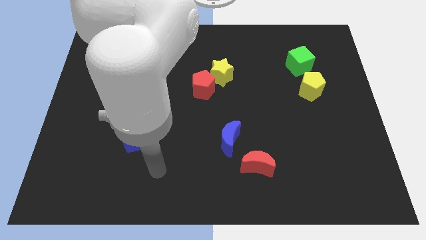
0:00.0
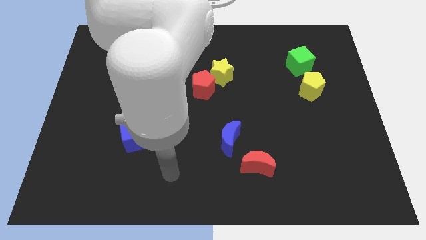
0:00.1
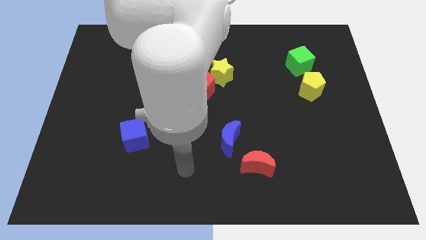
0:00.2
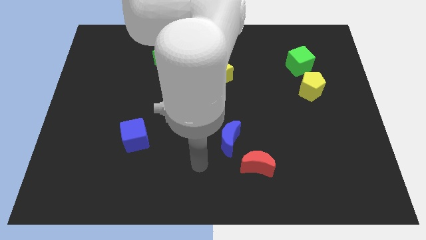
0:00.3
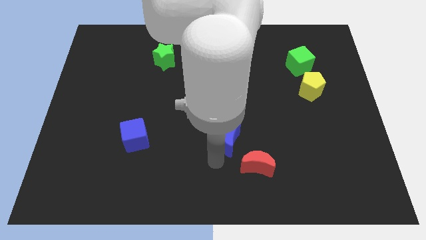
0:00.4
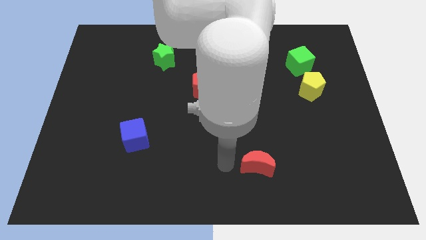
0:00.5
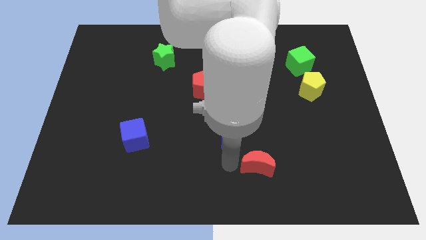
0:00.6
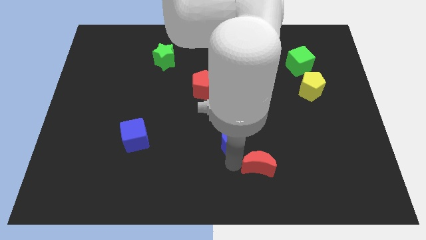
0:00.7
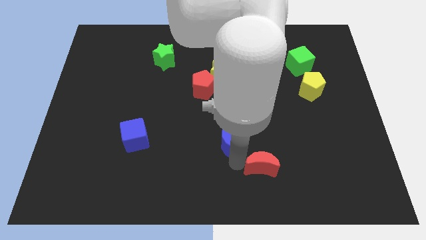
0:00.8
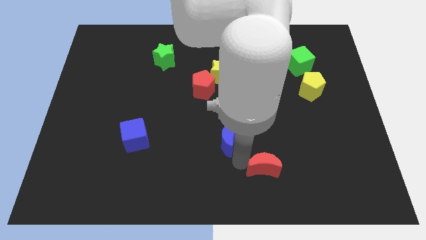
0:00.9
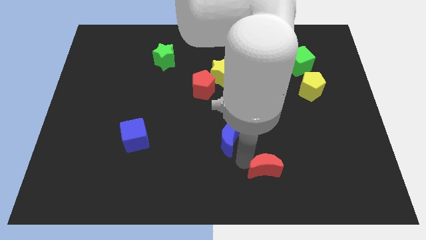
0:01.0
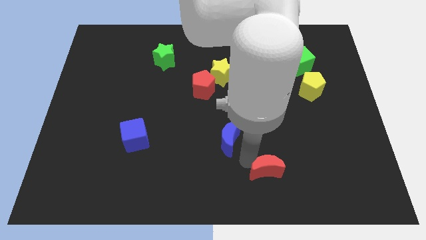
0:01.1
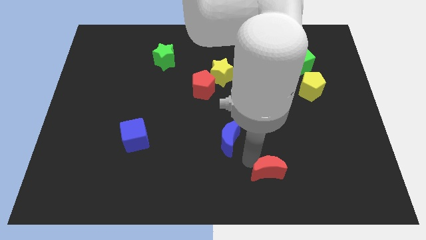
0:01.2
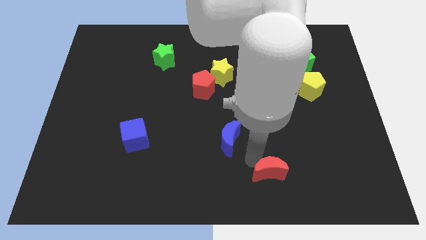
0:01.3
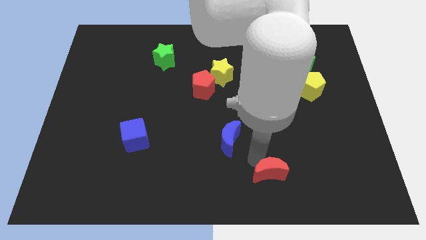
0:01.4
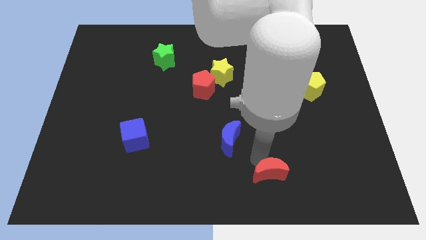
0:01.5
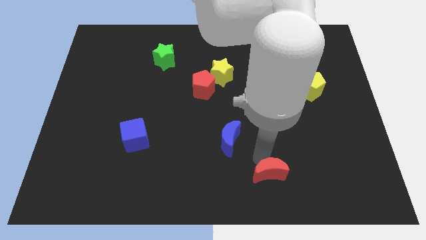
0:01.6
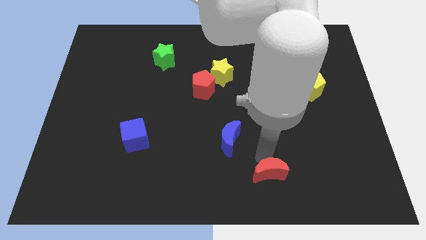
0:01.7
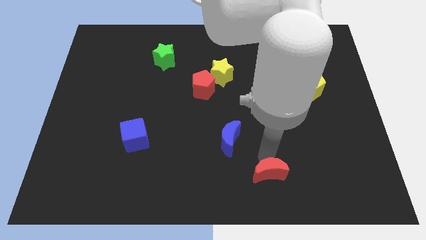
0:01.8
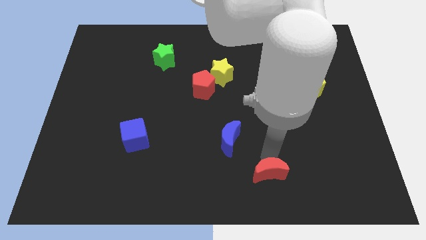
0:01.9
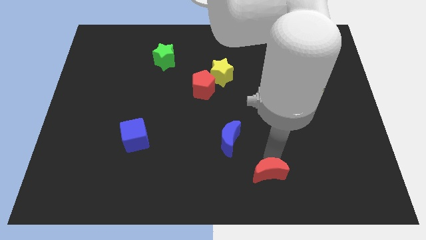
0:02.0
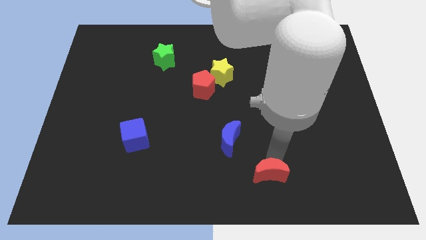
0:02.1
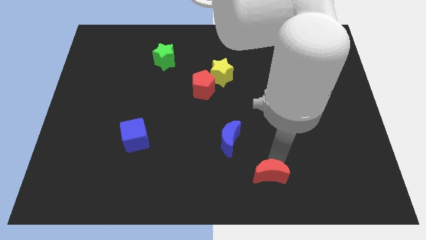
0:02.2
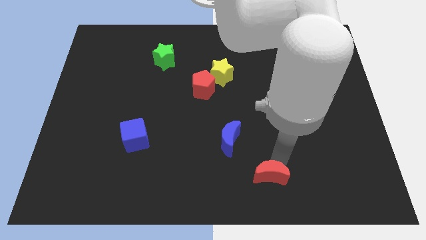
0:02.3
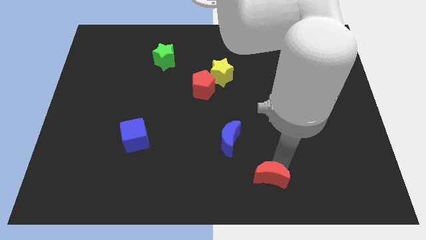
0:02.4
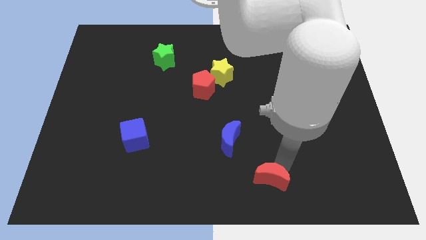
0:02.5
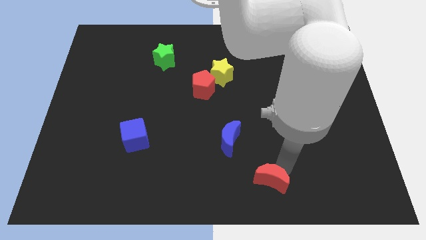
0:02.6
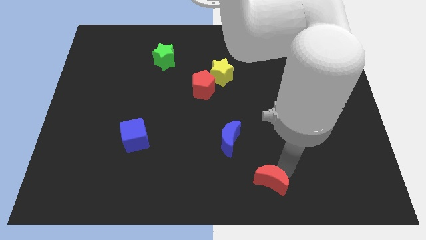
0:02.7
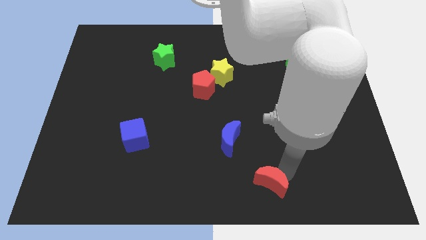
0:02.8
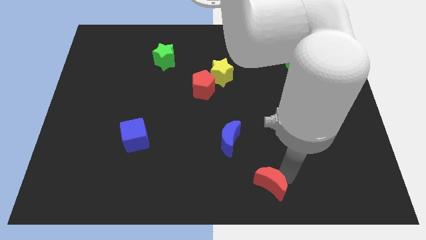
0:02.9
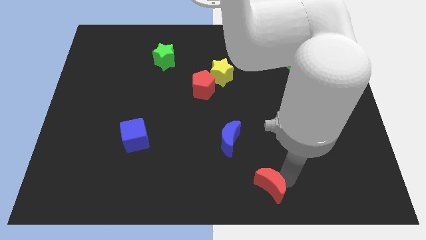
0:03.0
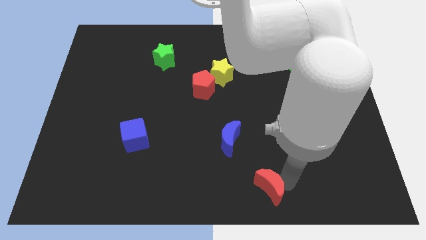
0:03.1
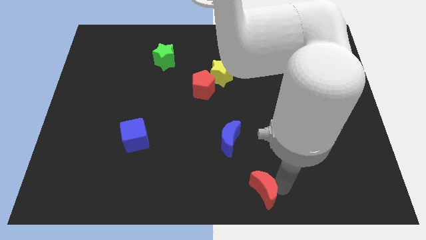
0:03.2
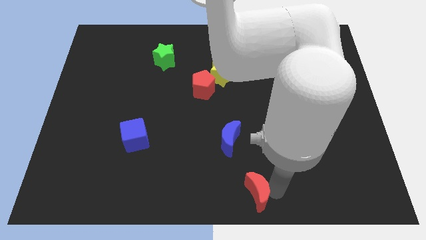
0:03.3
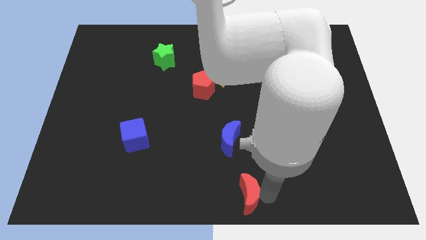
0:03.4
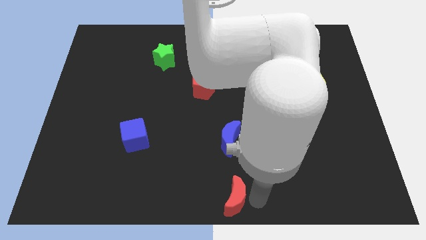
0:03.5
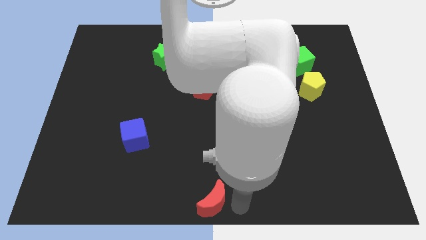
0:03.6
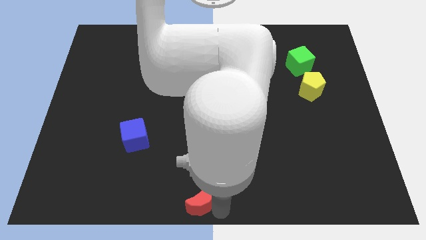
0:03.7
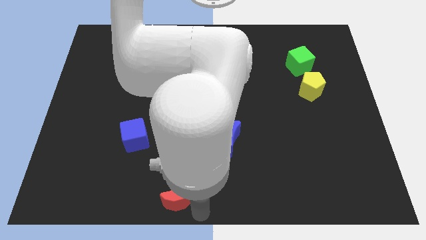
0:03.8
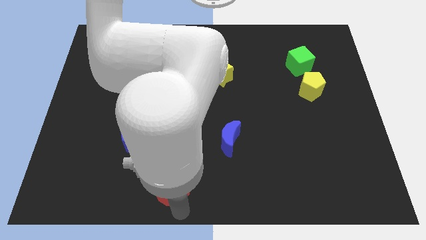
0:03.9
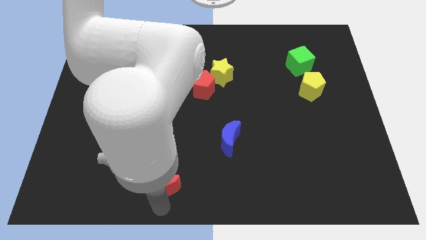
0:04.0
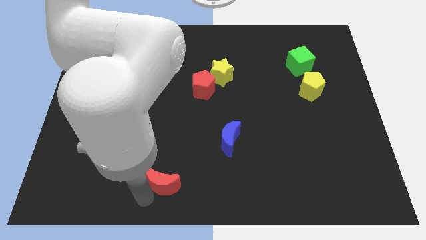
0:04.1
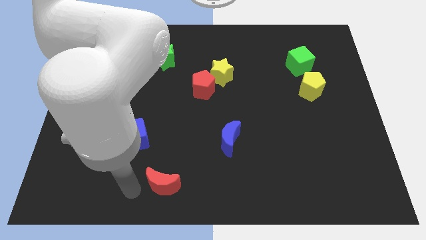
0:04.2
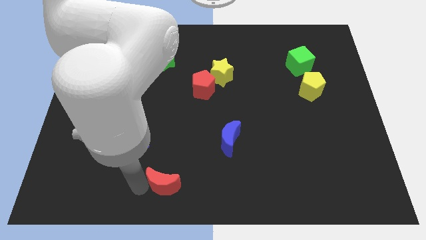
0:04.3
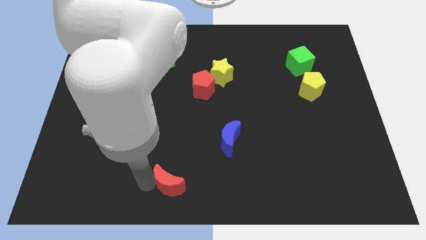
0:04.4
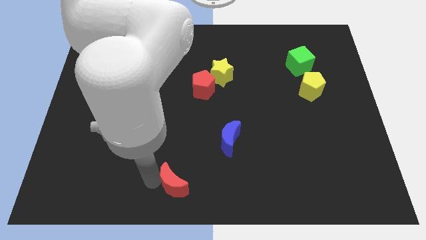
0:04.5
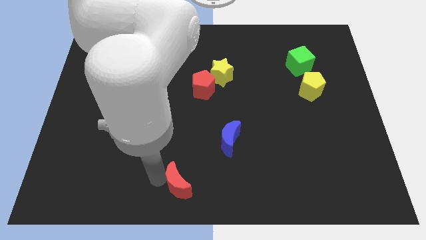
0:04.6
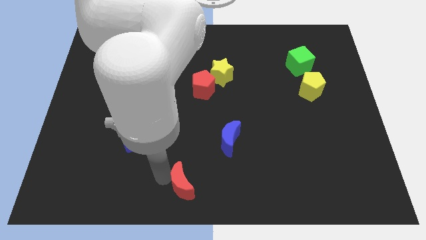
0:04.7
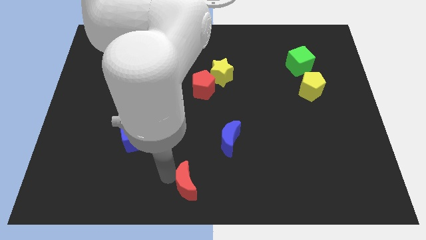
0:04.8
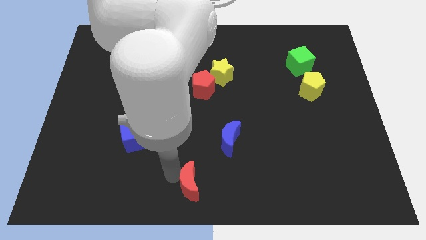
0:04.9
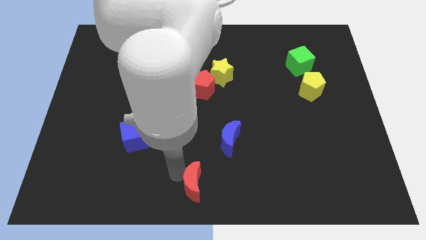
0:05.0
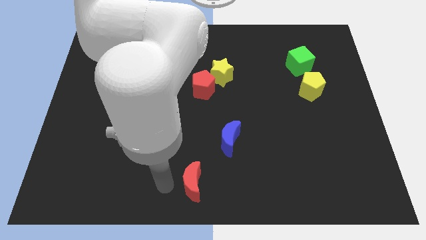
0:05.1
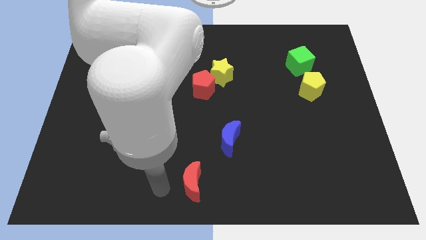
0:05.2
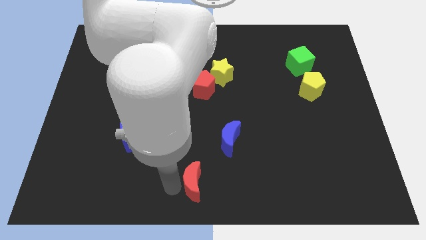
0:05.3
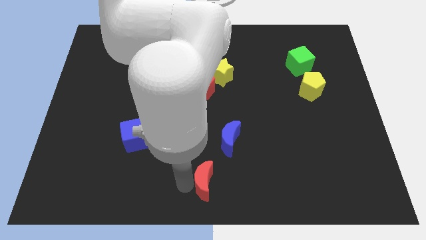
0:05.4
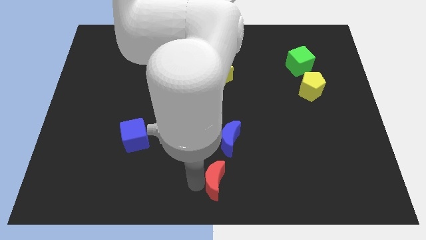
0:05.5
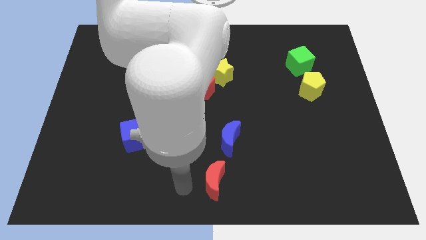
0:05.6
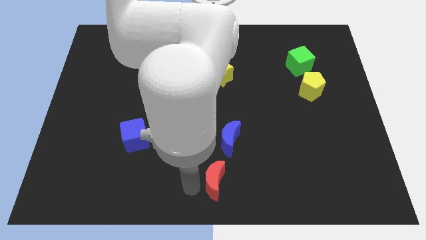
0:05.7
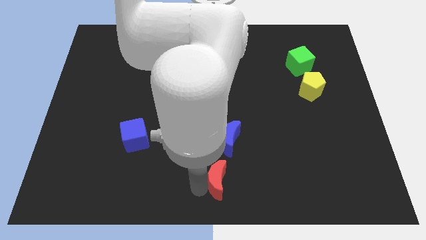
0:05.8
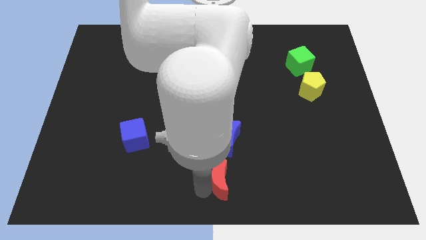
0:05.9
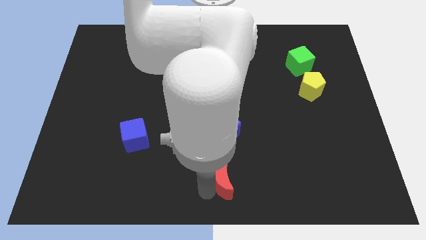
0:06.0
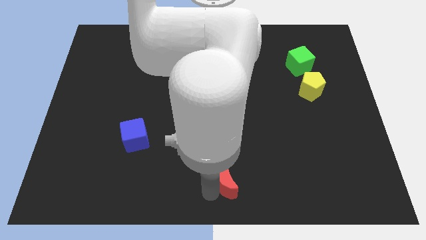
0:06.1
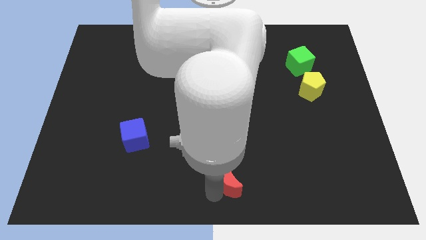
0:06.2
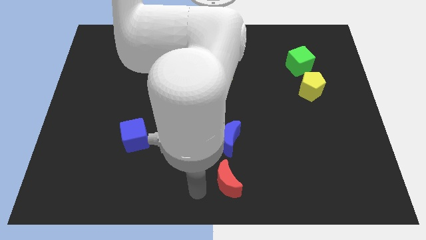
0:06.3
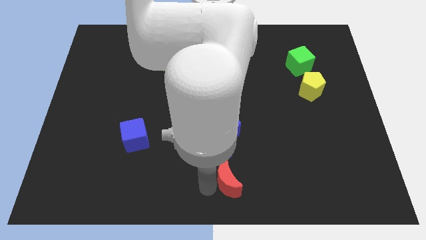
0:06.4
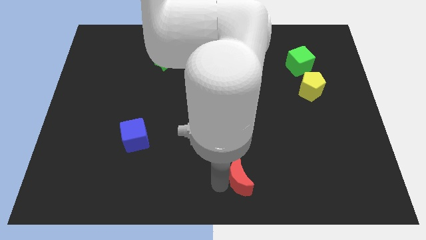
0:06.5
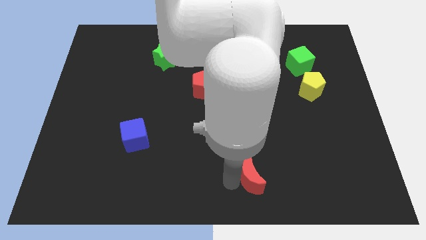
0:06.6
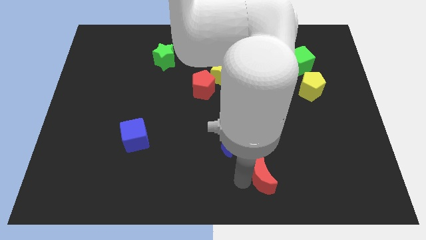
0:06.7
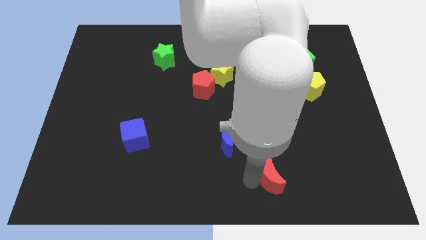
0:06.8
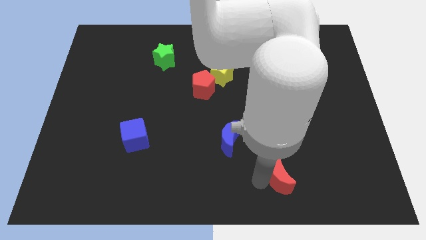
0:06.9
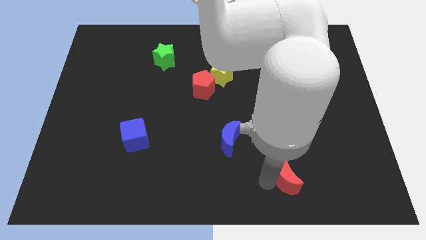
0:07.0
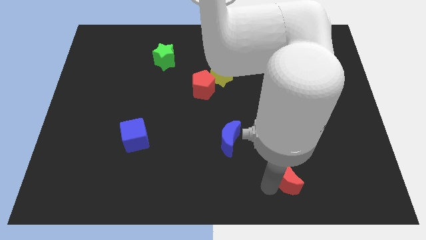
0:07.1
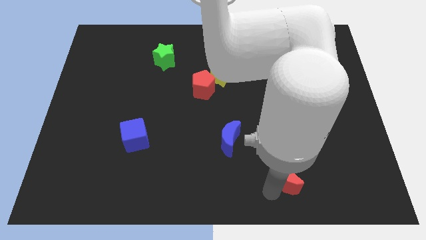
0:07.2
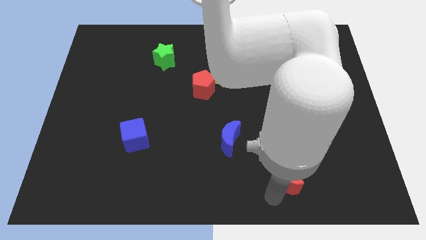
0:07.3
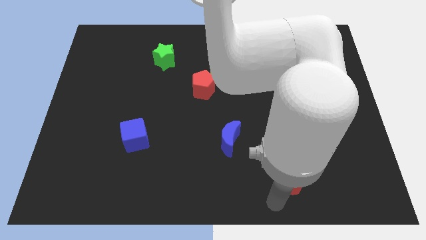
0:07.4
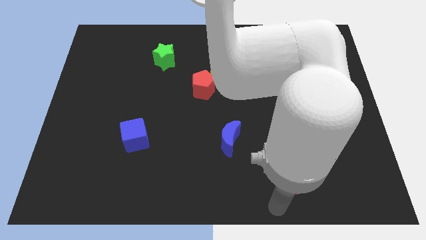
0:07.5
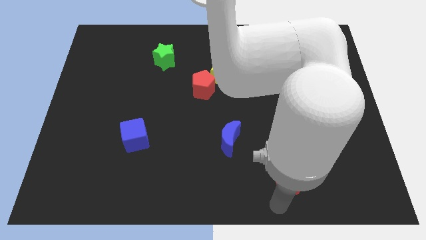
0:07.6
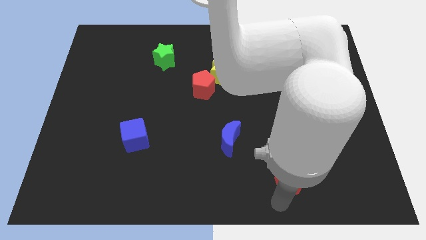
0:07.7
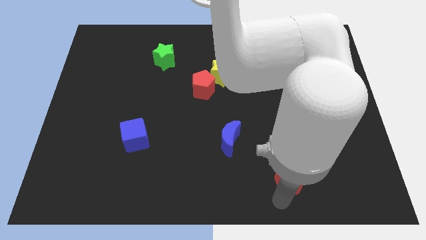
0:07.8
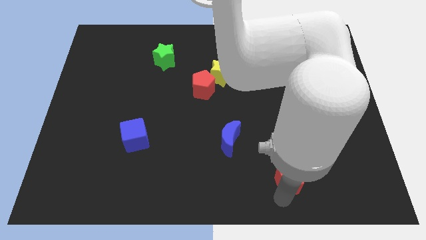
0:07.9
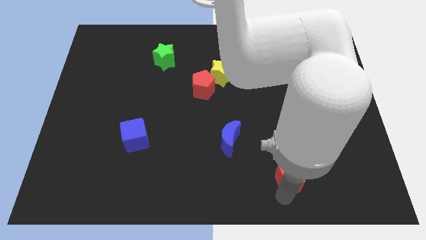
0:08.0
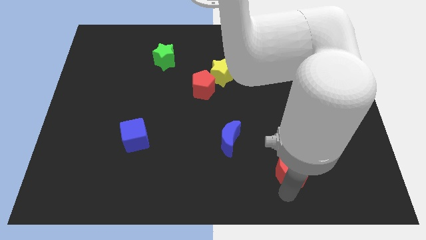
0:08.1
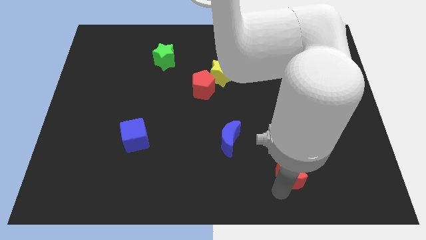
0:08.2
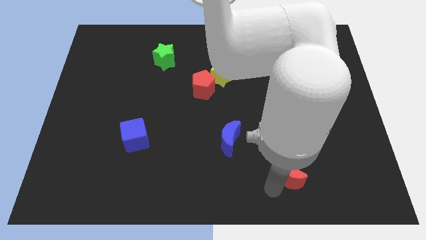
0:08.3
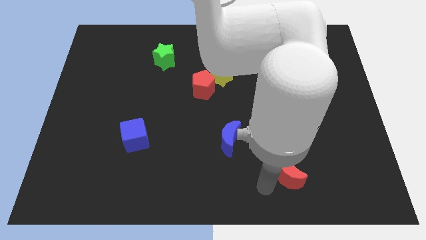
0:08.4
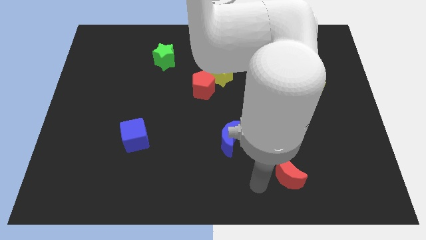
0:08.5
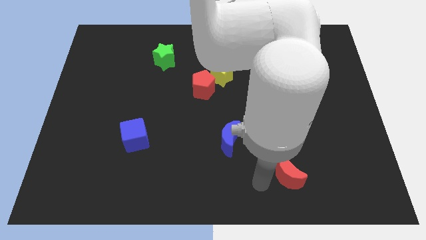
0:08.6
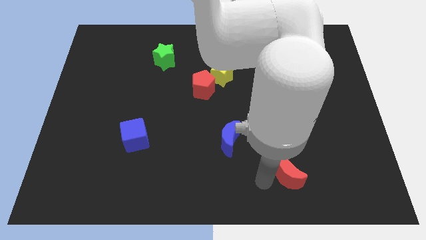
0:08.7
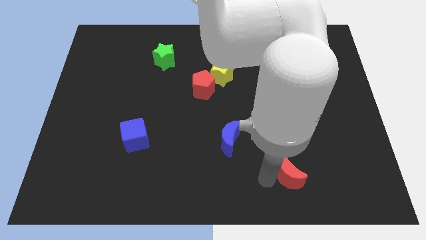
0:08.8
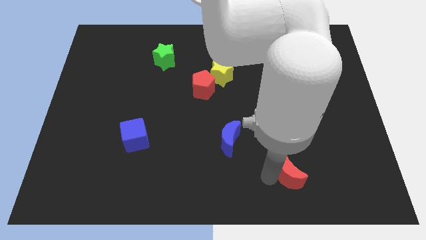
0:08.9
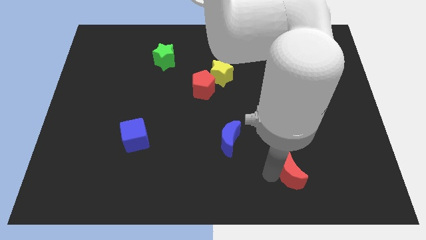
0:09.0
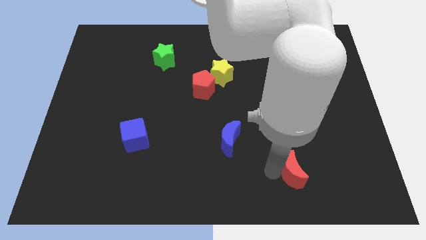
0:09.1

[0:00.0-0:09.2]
move the red moon slightly to the right
